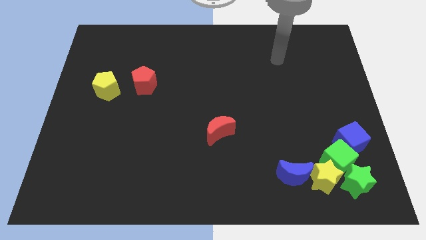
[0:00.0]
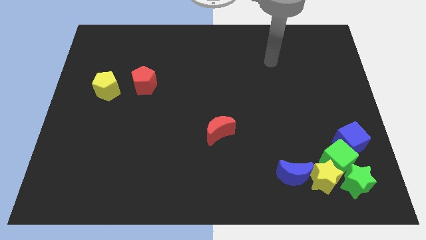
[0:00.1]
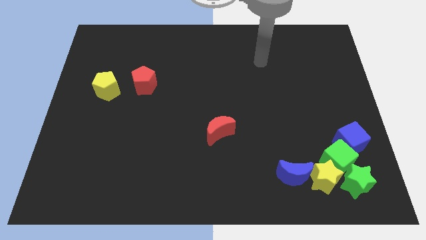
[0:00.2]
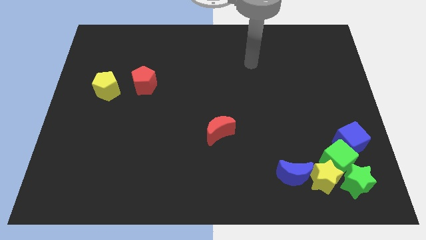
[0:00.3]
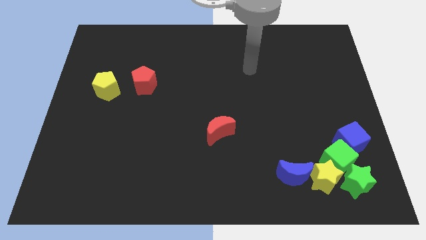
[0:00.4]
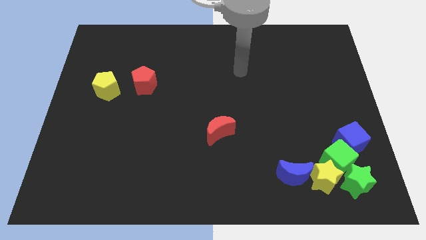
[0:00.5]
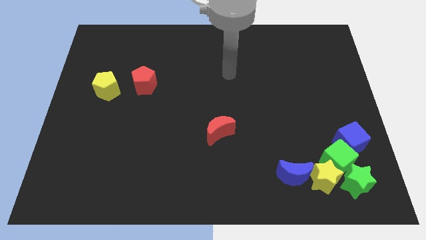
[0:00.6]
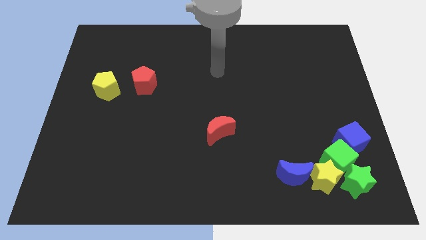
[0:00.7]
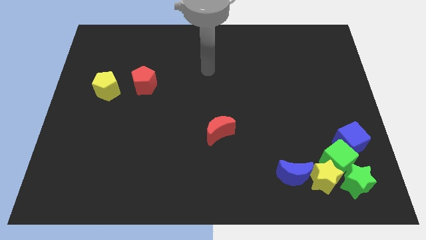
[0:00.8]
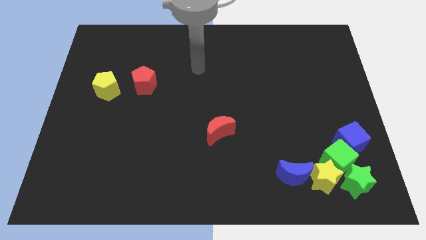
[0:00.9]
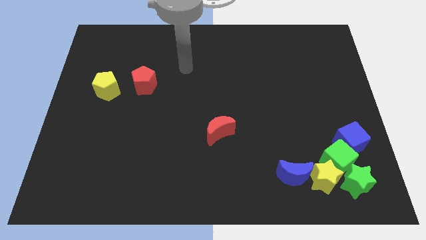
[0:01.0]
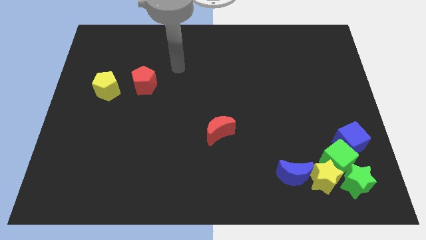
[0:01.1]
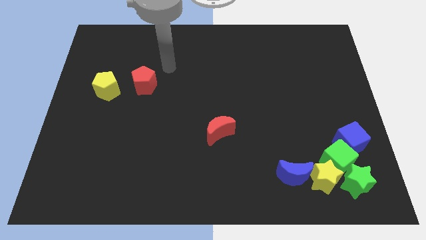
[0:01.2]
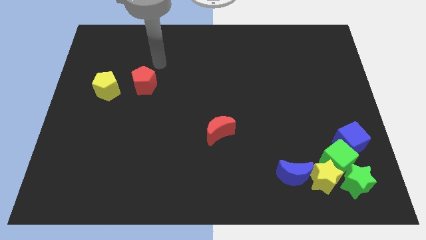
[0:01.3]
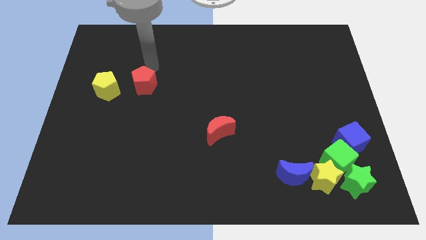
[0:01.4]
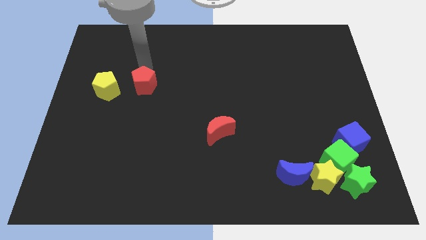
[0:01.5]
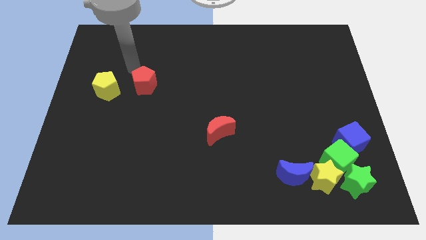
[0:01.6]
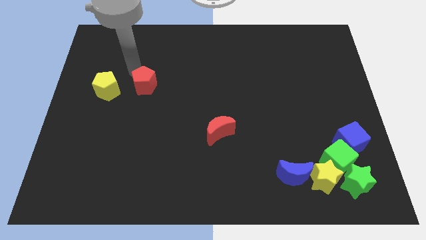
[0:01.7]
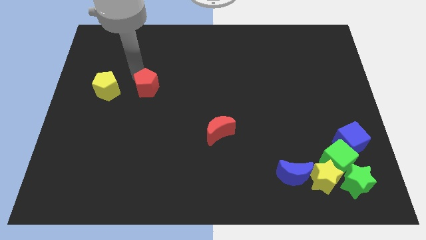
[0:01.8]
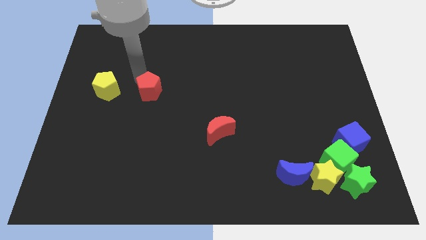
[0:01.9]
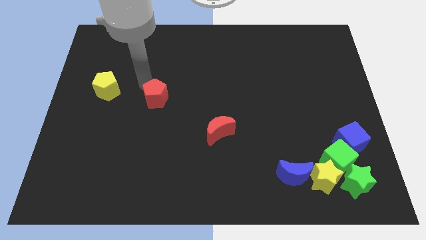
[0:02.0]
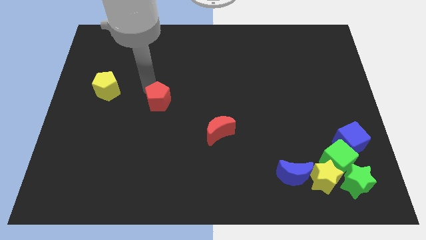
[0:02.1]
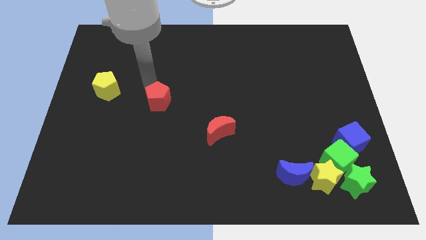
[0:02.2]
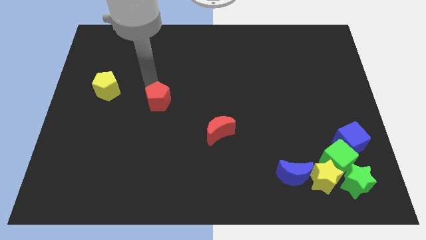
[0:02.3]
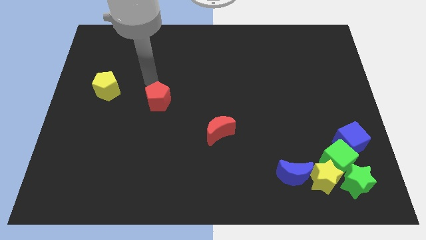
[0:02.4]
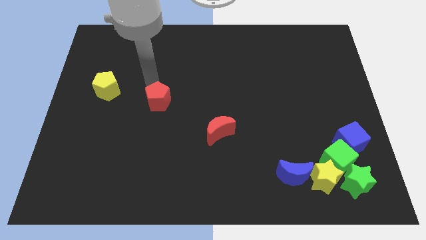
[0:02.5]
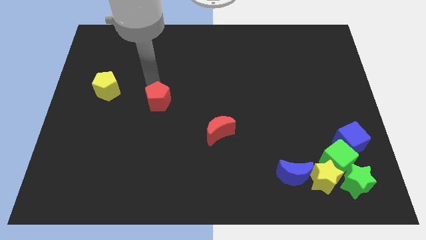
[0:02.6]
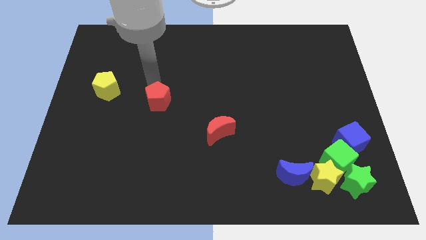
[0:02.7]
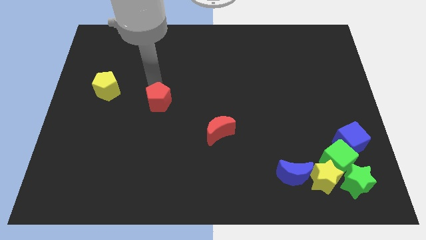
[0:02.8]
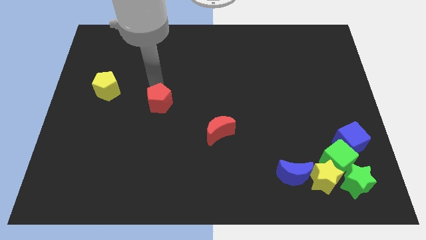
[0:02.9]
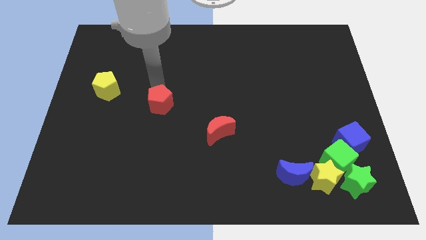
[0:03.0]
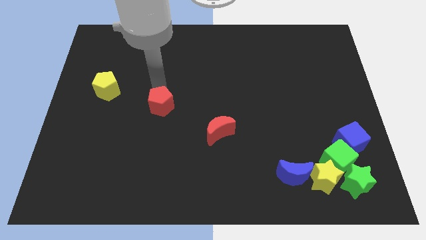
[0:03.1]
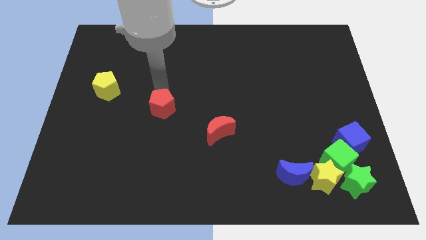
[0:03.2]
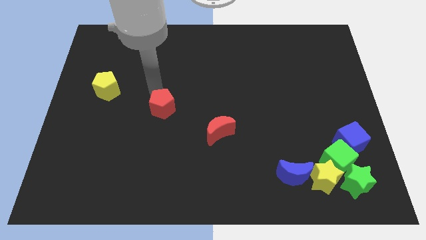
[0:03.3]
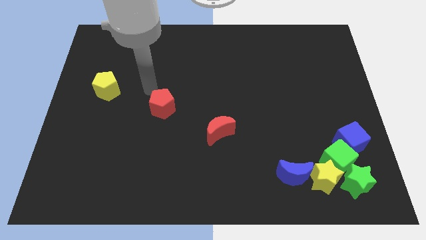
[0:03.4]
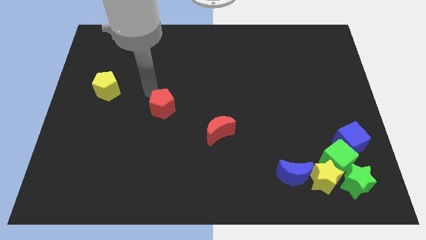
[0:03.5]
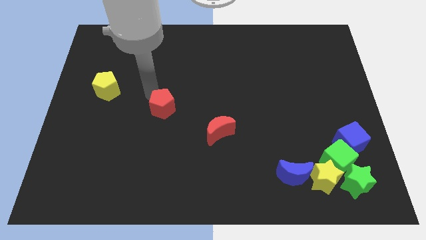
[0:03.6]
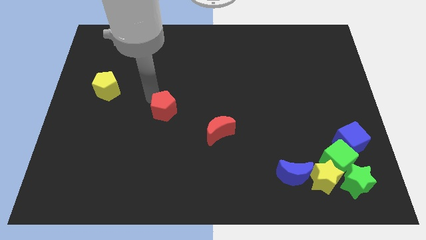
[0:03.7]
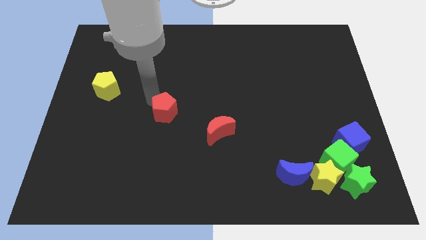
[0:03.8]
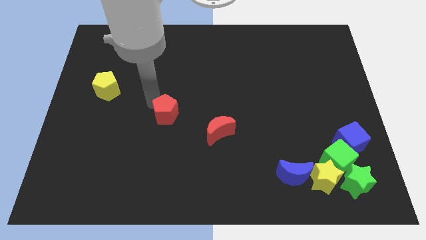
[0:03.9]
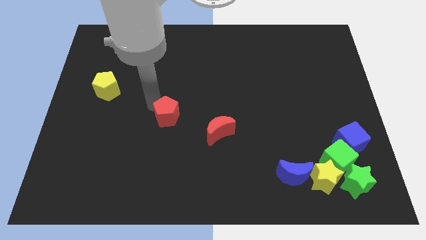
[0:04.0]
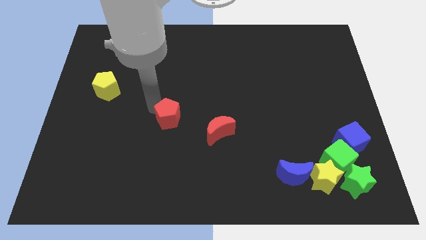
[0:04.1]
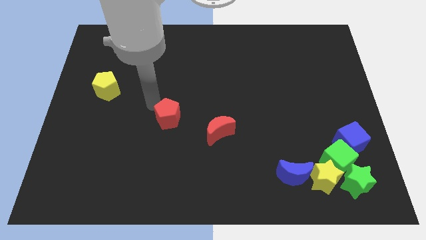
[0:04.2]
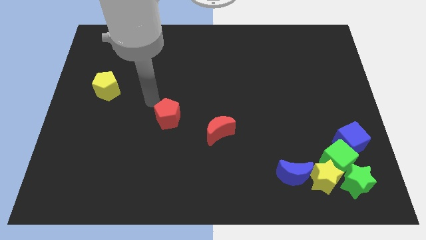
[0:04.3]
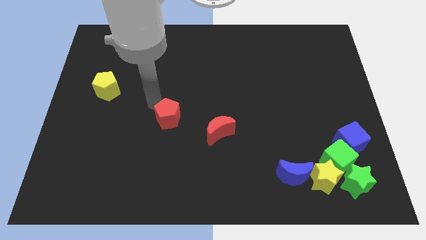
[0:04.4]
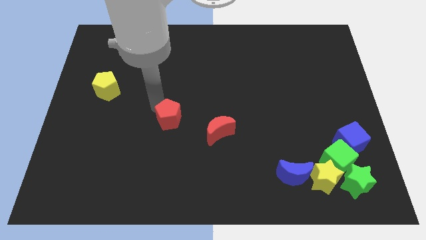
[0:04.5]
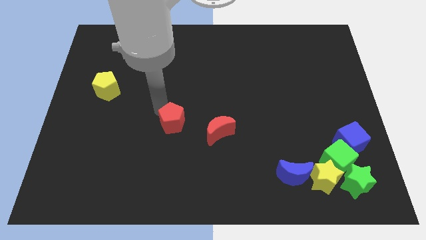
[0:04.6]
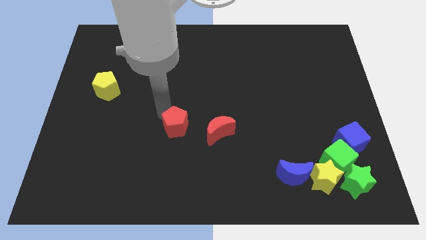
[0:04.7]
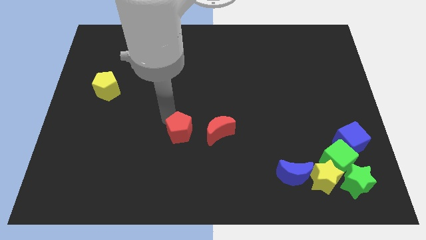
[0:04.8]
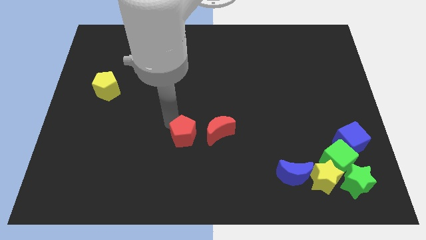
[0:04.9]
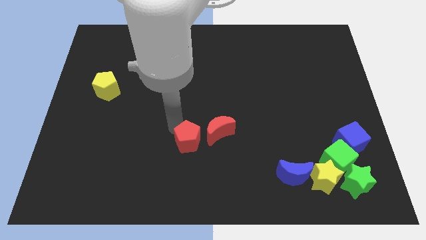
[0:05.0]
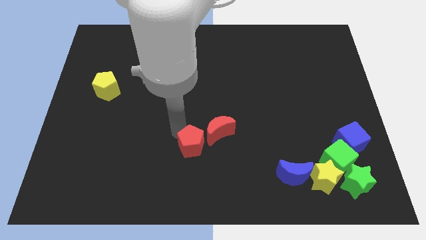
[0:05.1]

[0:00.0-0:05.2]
push the red pentagon downwards and to the right diagonally

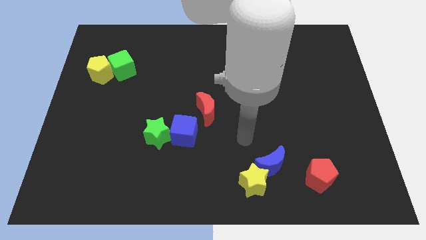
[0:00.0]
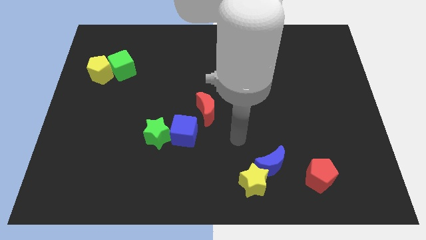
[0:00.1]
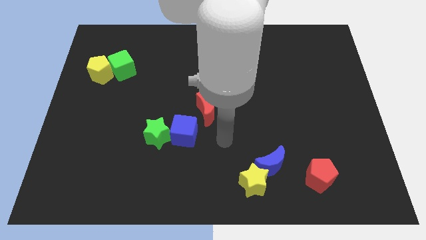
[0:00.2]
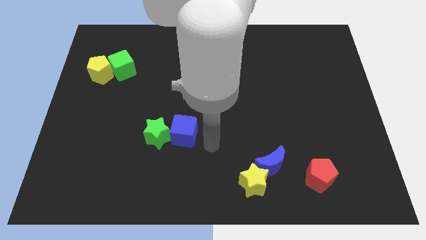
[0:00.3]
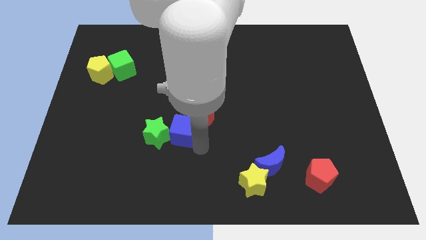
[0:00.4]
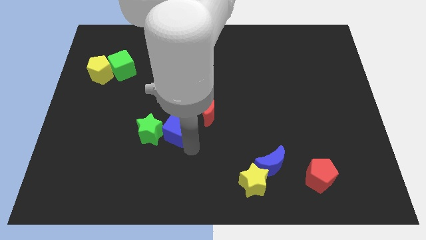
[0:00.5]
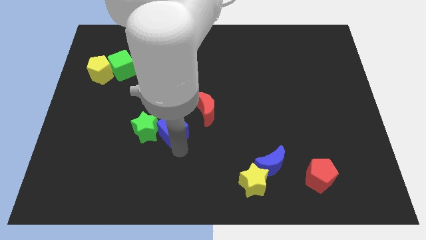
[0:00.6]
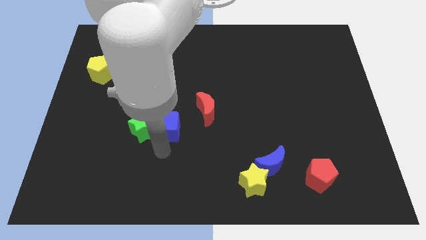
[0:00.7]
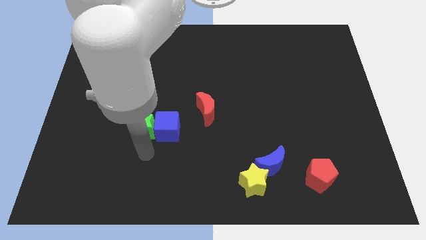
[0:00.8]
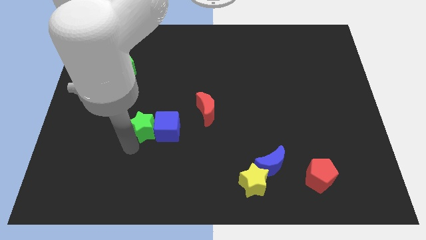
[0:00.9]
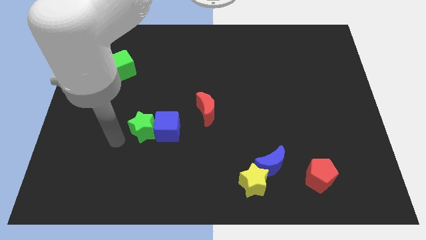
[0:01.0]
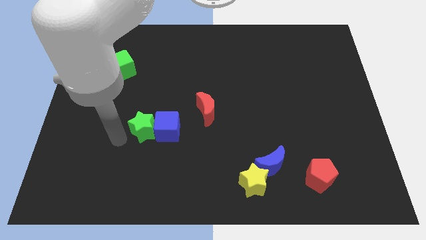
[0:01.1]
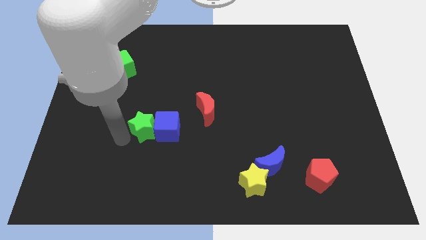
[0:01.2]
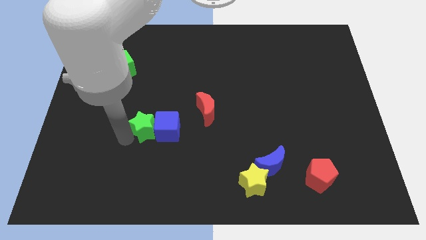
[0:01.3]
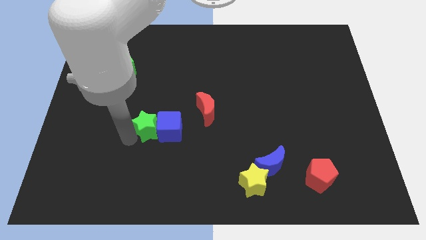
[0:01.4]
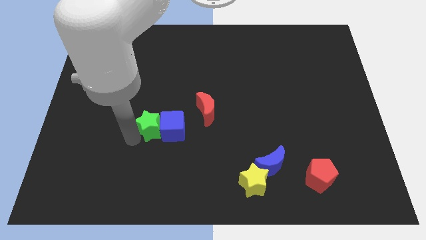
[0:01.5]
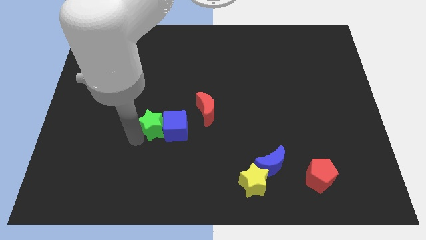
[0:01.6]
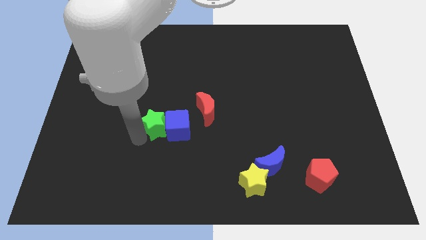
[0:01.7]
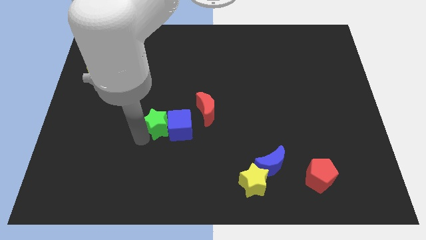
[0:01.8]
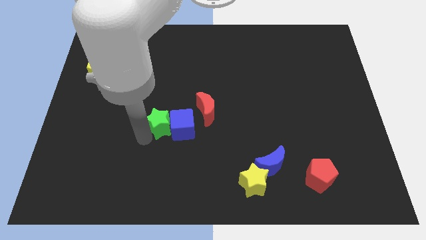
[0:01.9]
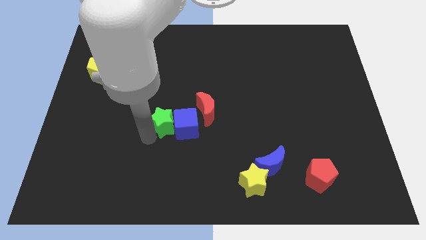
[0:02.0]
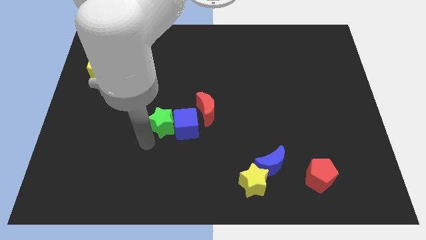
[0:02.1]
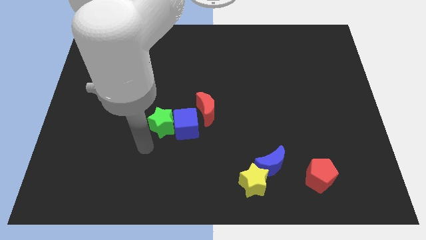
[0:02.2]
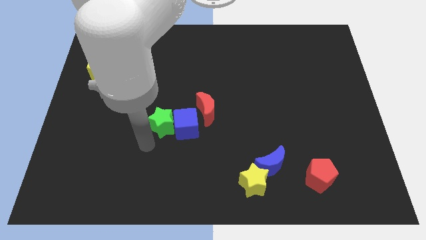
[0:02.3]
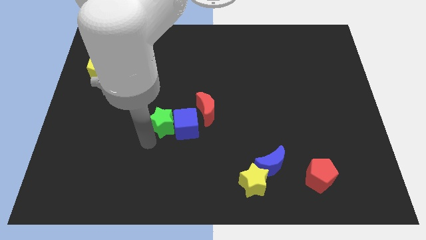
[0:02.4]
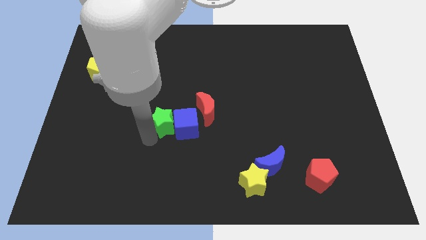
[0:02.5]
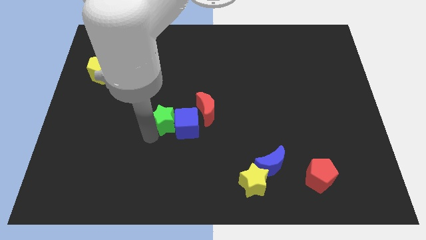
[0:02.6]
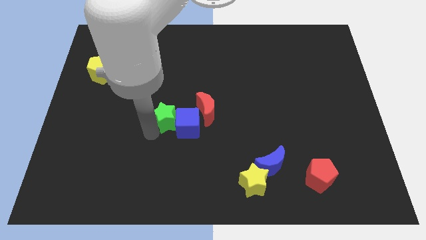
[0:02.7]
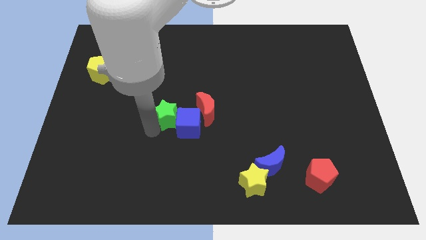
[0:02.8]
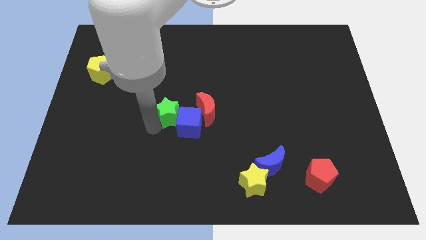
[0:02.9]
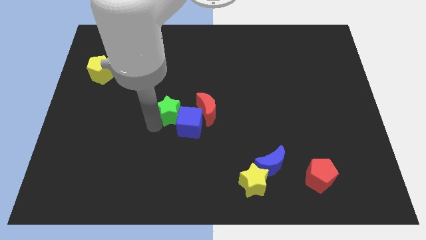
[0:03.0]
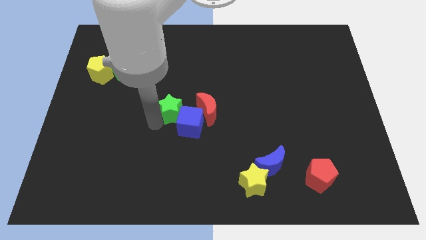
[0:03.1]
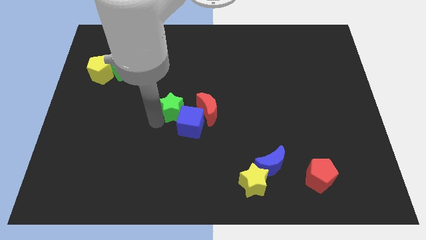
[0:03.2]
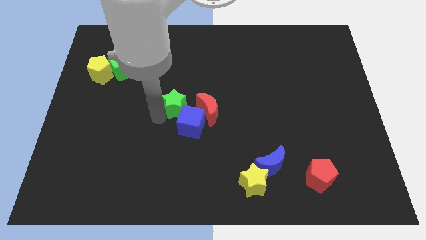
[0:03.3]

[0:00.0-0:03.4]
slightly slide the green star upwards and right diagonally
